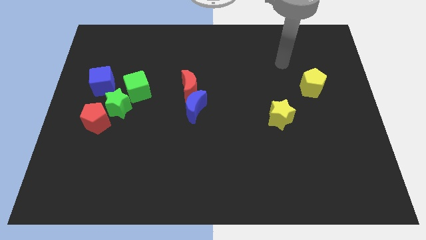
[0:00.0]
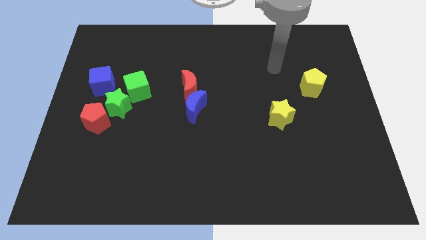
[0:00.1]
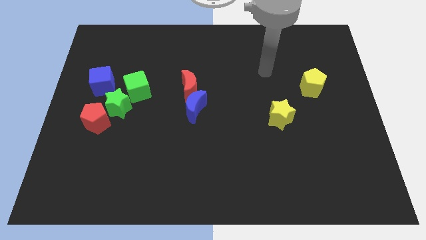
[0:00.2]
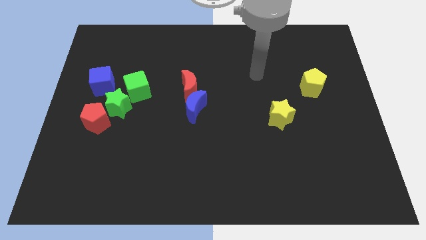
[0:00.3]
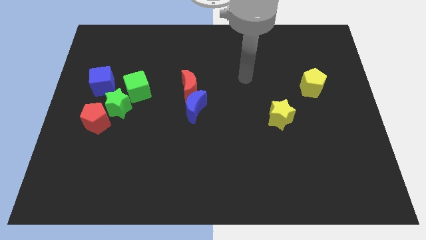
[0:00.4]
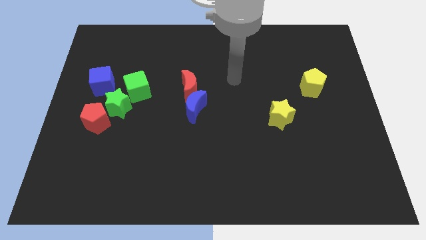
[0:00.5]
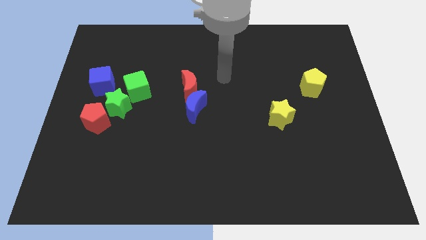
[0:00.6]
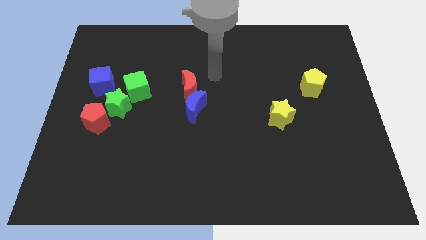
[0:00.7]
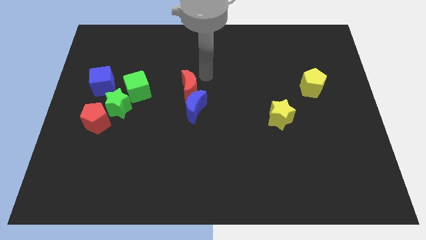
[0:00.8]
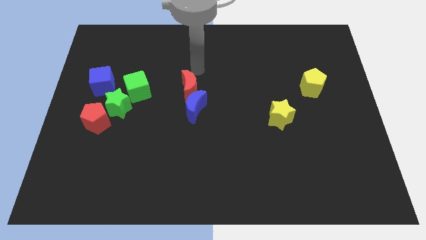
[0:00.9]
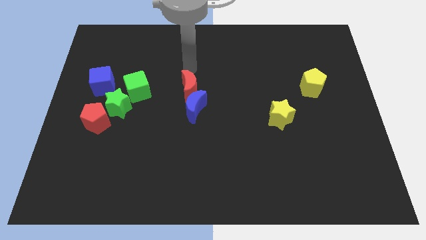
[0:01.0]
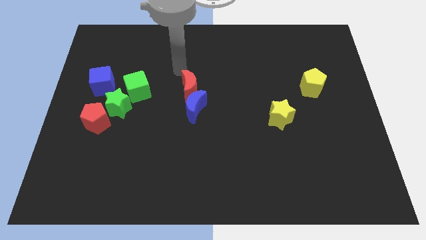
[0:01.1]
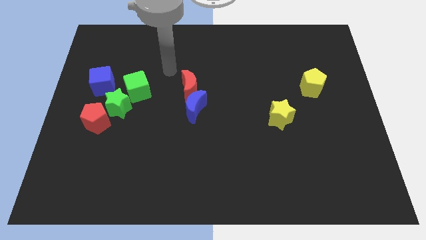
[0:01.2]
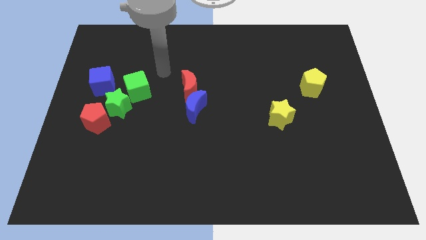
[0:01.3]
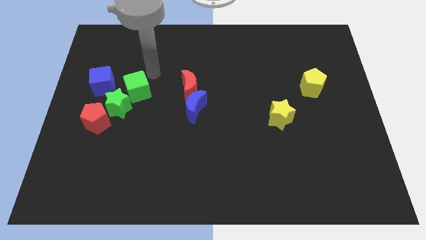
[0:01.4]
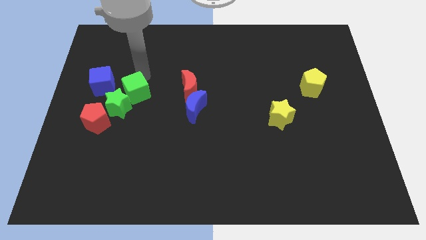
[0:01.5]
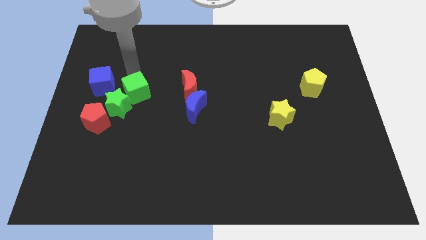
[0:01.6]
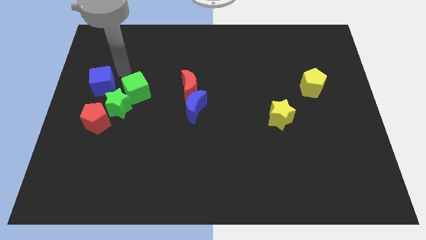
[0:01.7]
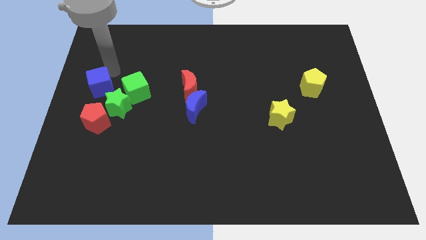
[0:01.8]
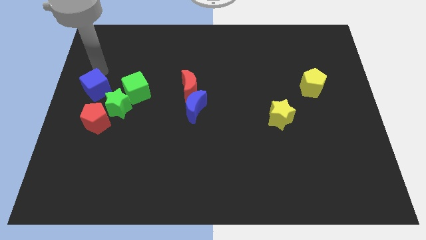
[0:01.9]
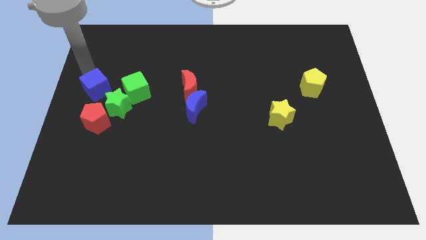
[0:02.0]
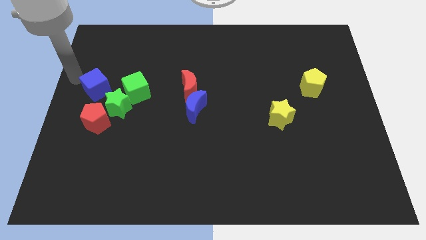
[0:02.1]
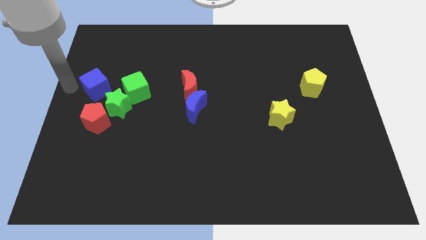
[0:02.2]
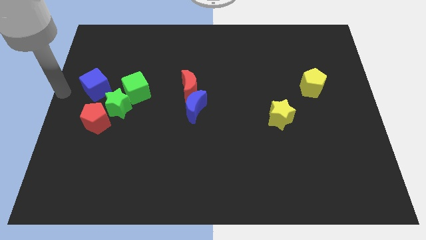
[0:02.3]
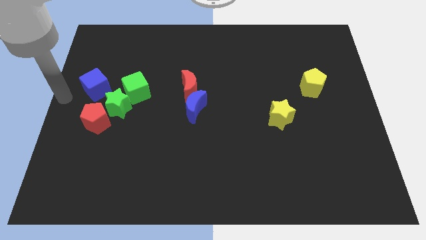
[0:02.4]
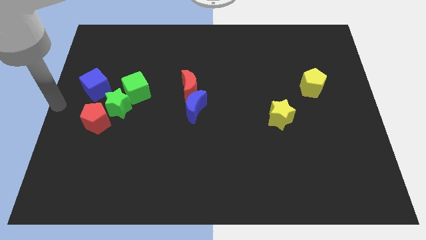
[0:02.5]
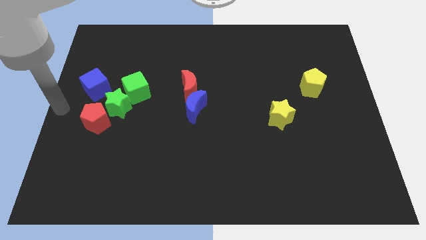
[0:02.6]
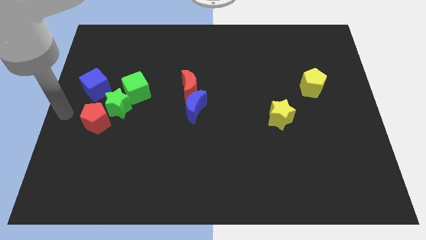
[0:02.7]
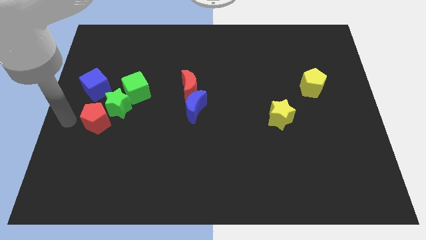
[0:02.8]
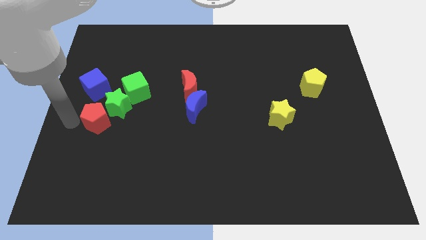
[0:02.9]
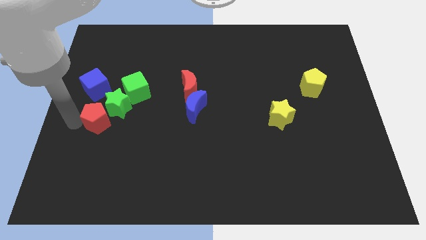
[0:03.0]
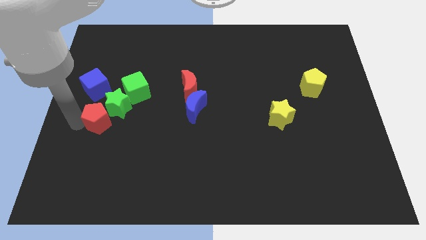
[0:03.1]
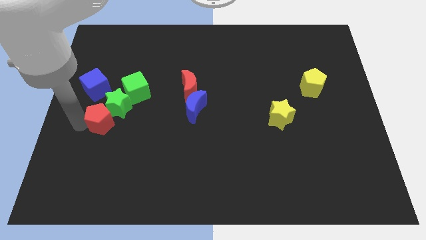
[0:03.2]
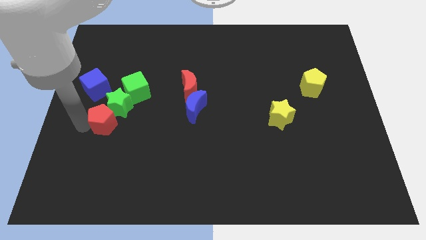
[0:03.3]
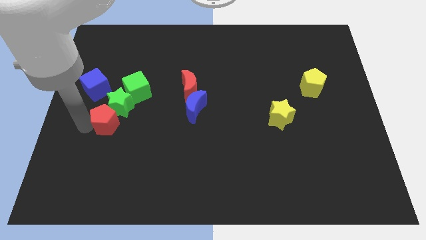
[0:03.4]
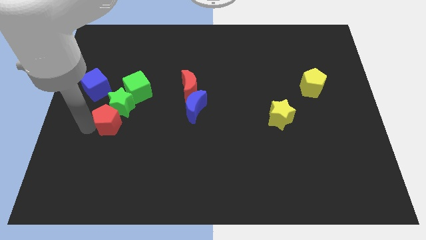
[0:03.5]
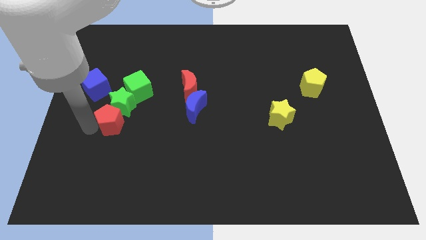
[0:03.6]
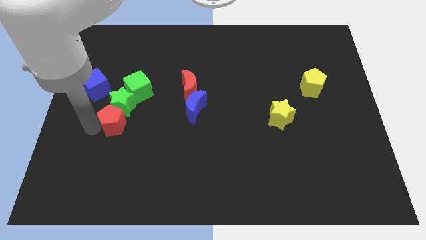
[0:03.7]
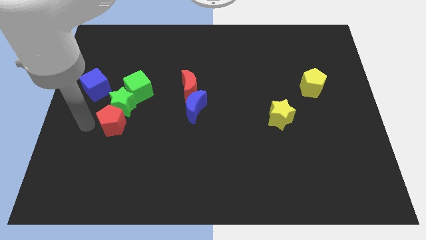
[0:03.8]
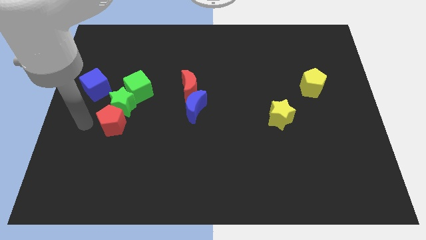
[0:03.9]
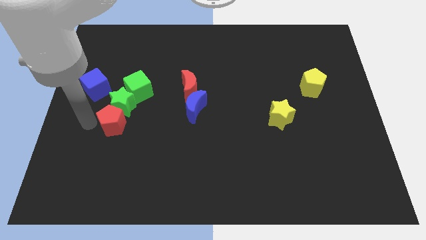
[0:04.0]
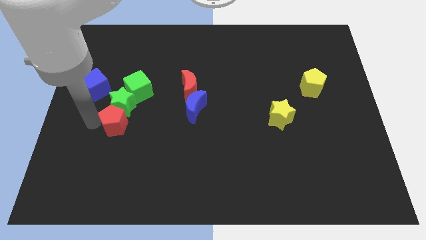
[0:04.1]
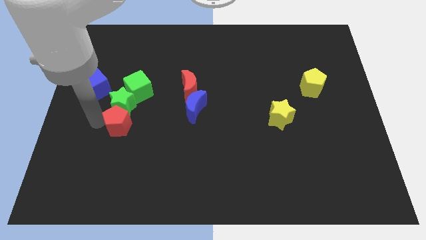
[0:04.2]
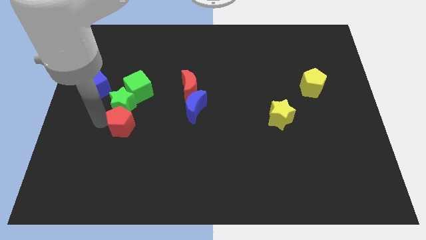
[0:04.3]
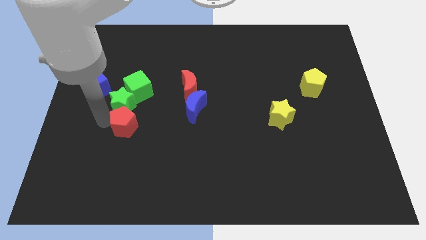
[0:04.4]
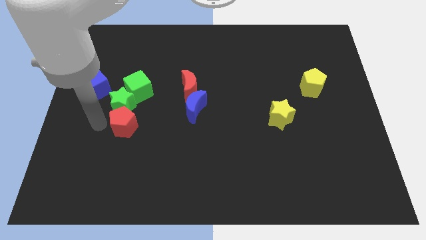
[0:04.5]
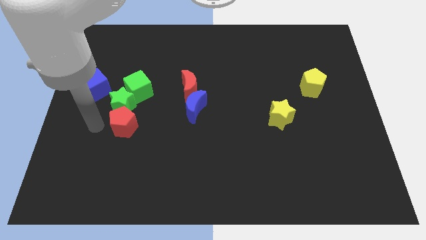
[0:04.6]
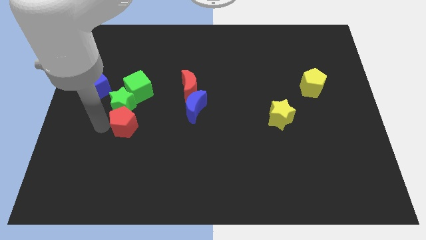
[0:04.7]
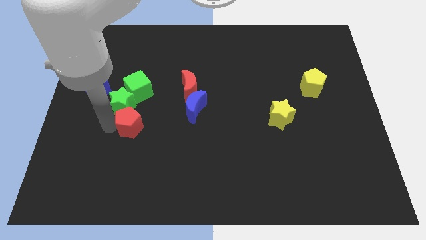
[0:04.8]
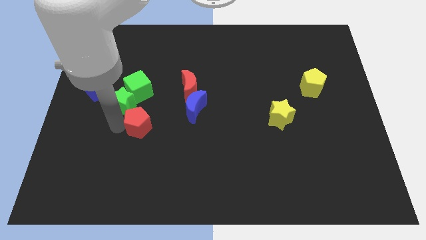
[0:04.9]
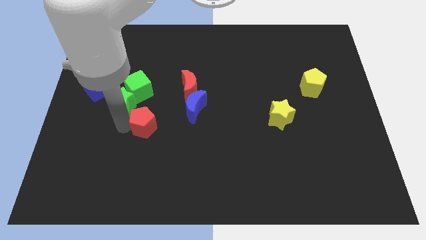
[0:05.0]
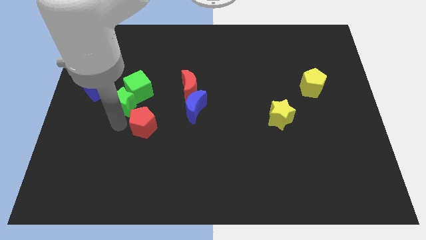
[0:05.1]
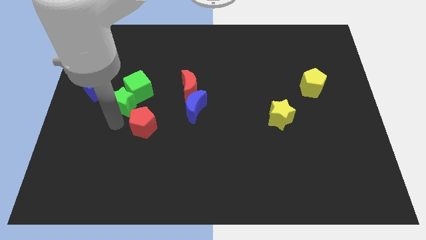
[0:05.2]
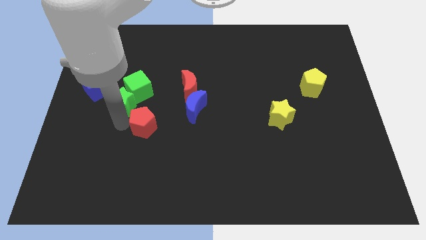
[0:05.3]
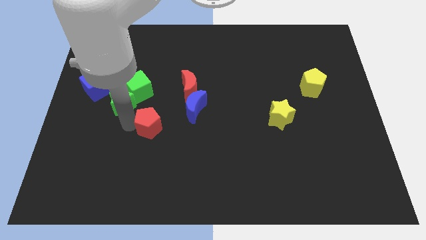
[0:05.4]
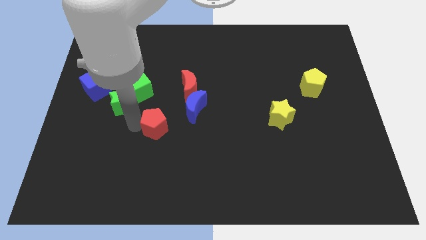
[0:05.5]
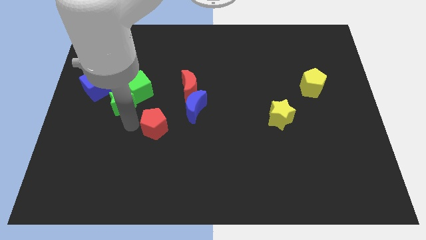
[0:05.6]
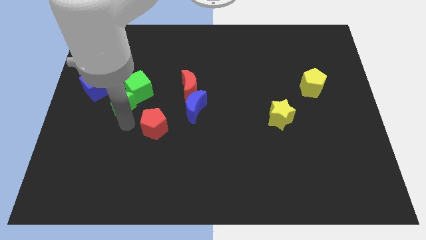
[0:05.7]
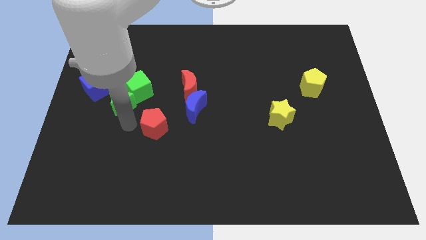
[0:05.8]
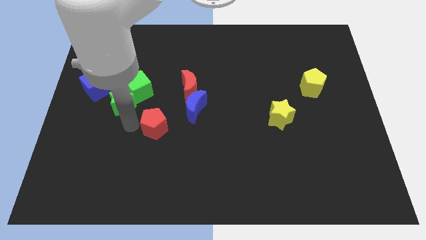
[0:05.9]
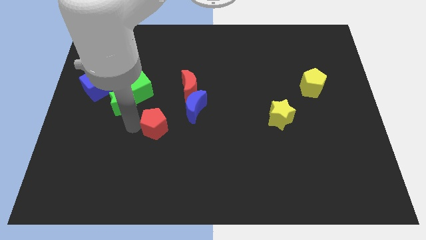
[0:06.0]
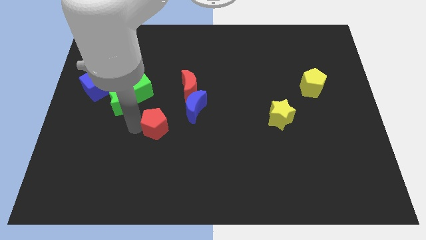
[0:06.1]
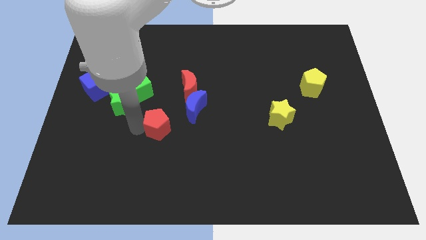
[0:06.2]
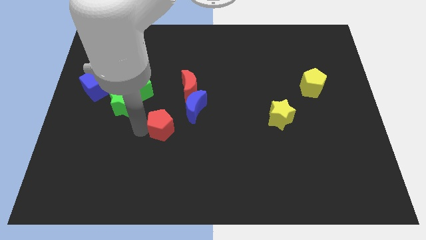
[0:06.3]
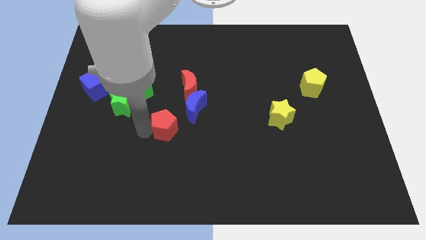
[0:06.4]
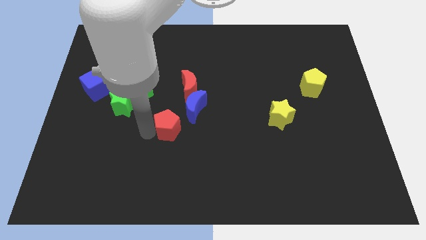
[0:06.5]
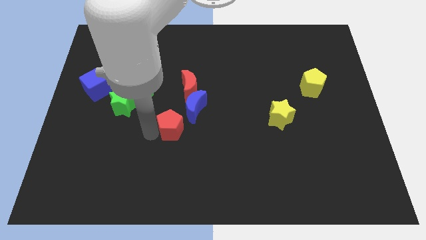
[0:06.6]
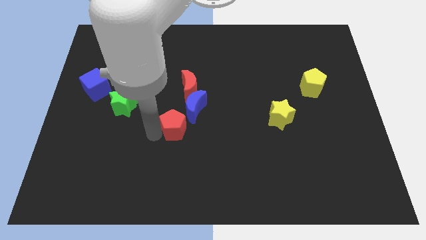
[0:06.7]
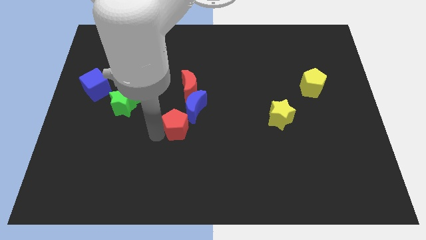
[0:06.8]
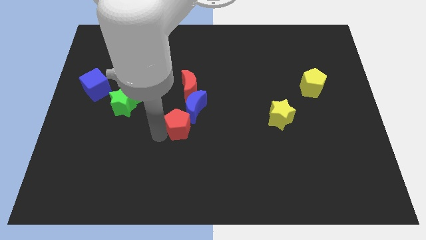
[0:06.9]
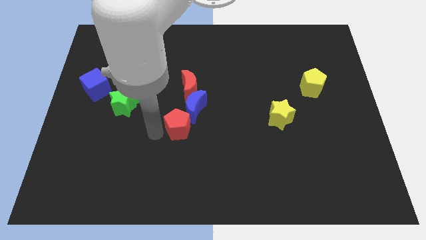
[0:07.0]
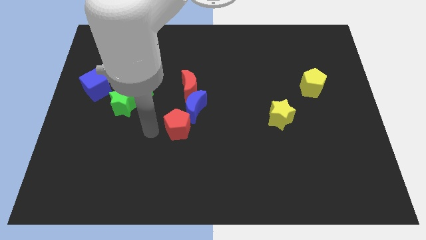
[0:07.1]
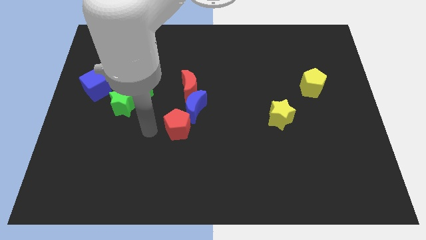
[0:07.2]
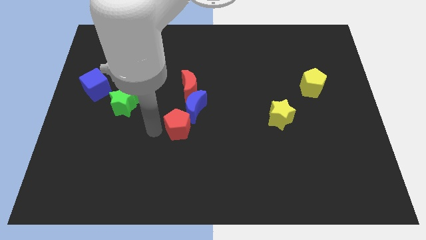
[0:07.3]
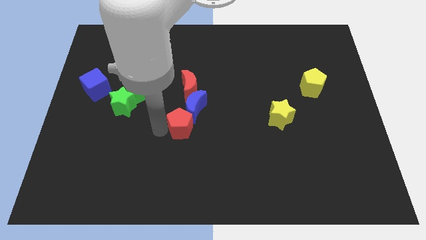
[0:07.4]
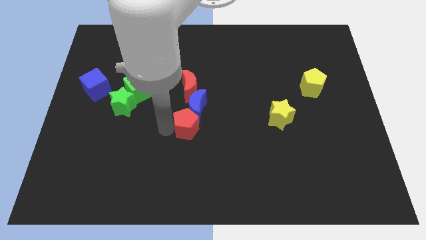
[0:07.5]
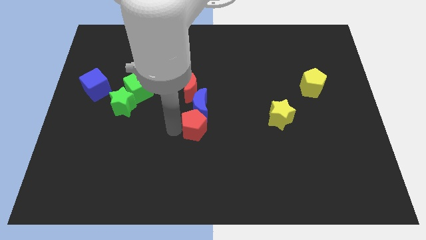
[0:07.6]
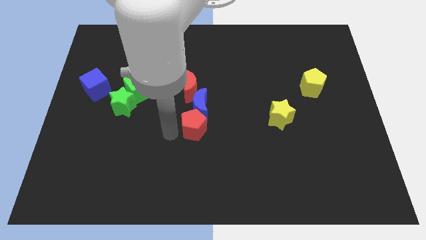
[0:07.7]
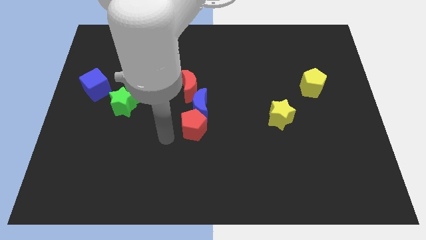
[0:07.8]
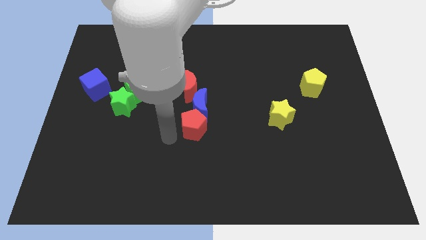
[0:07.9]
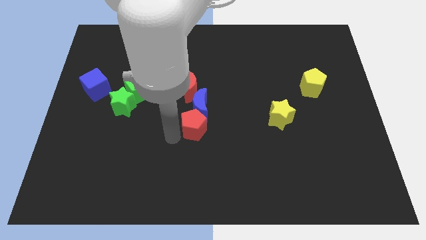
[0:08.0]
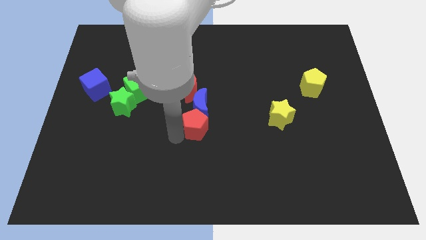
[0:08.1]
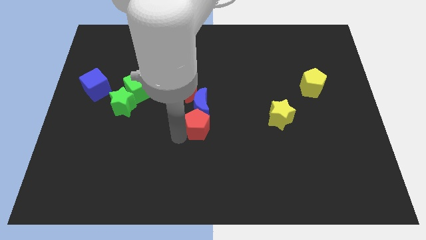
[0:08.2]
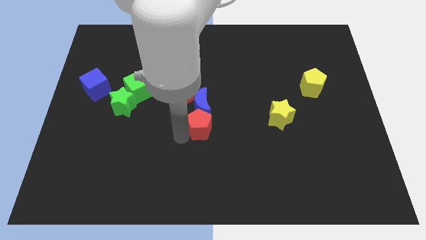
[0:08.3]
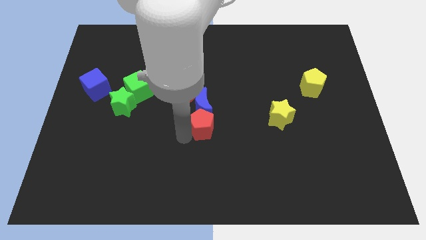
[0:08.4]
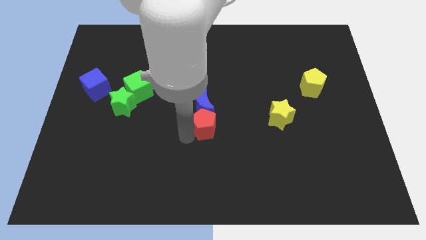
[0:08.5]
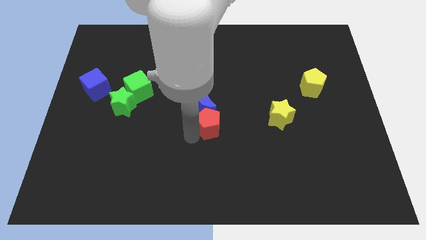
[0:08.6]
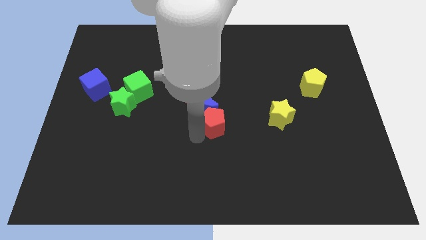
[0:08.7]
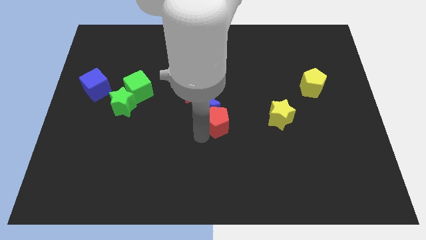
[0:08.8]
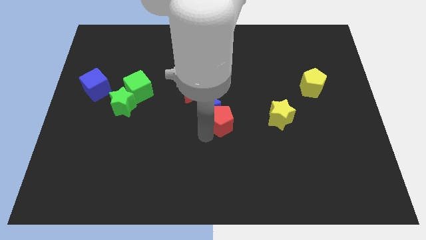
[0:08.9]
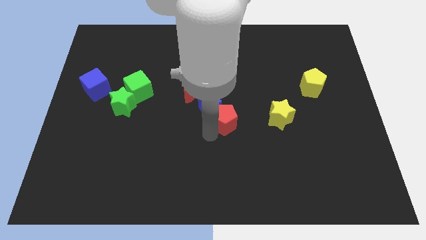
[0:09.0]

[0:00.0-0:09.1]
move the red pentagon to the right of the blue moon
